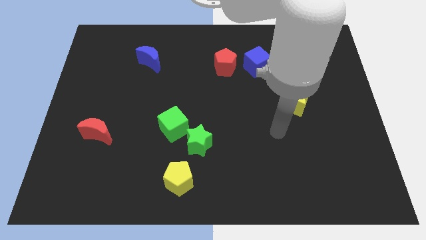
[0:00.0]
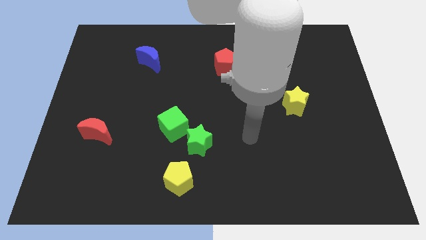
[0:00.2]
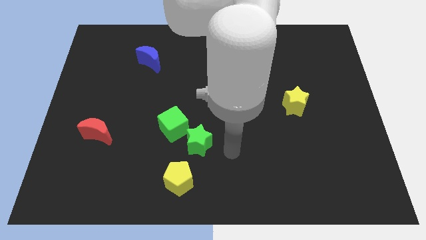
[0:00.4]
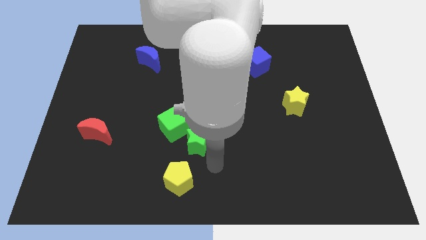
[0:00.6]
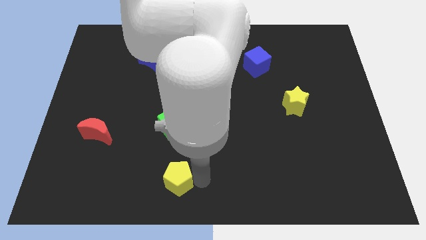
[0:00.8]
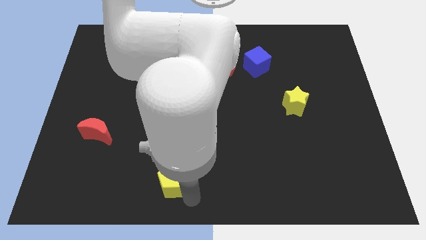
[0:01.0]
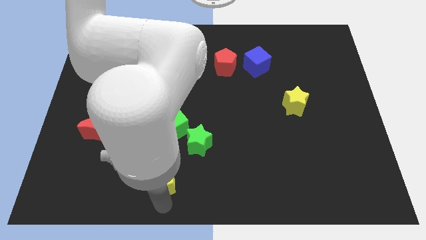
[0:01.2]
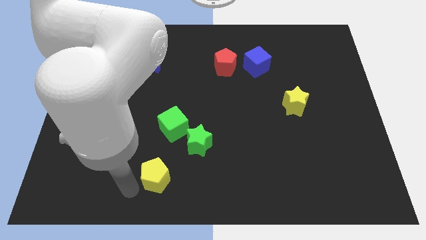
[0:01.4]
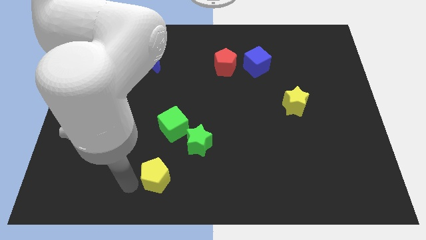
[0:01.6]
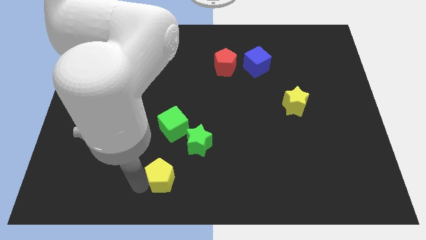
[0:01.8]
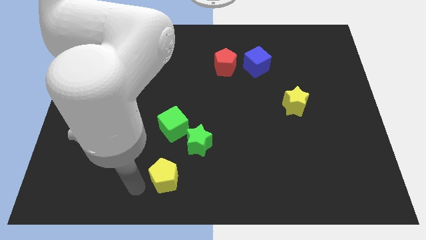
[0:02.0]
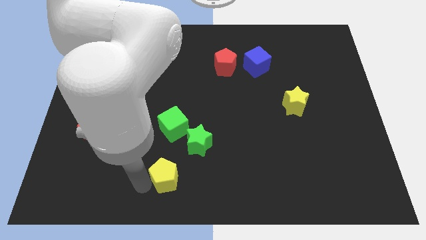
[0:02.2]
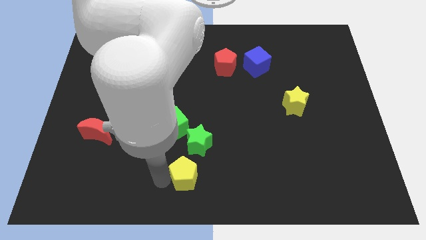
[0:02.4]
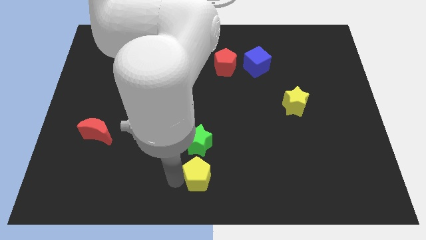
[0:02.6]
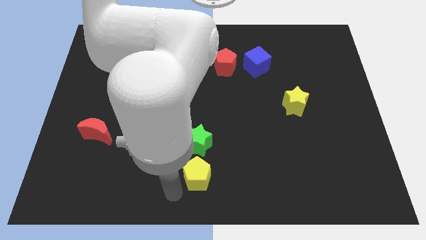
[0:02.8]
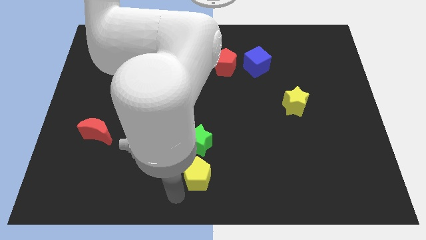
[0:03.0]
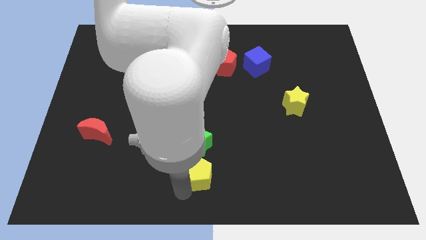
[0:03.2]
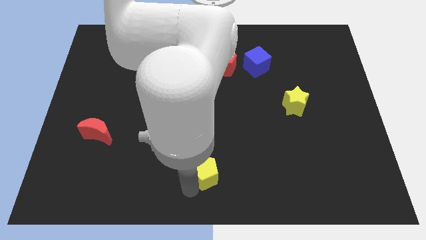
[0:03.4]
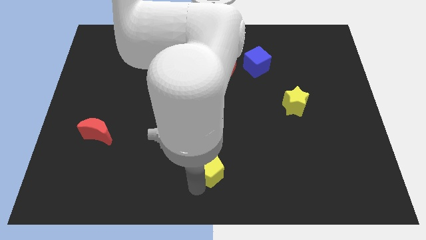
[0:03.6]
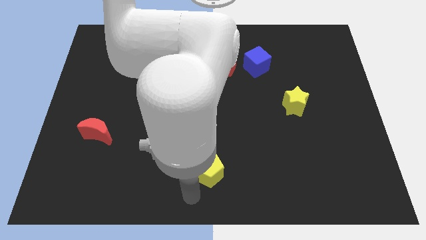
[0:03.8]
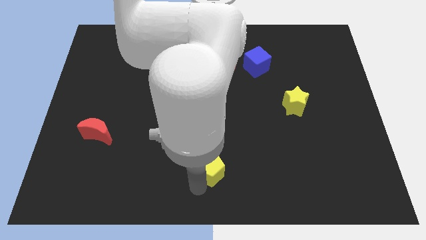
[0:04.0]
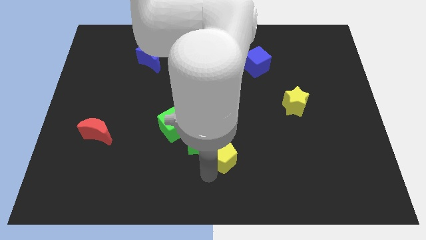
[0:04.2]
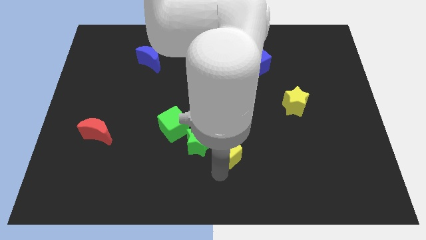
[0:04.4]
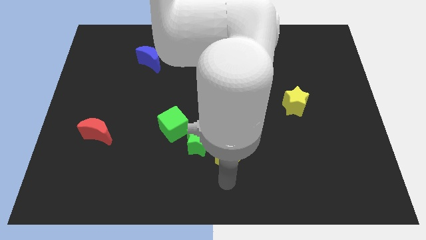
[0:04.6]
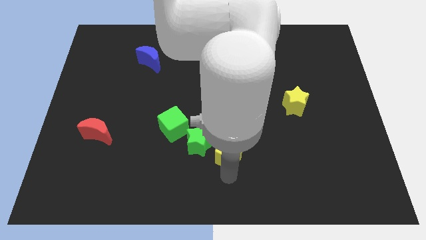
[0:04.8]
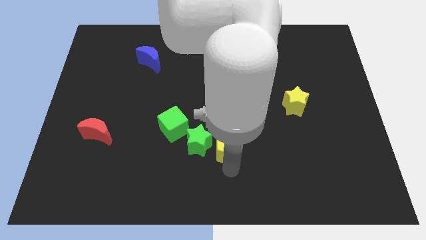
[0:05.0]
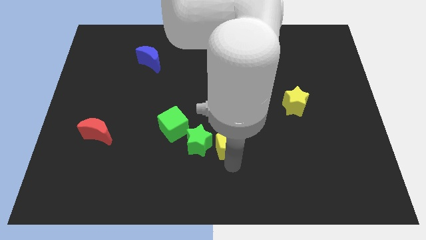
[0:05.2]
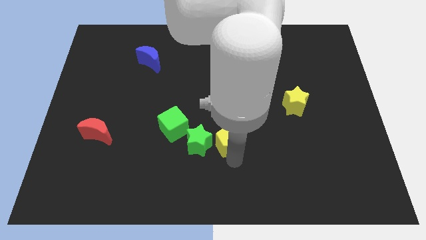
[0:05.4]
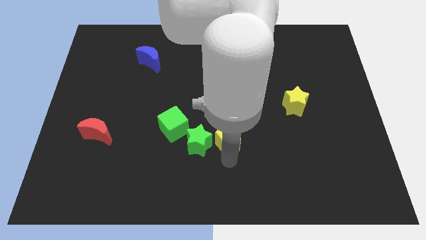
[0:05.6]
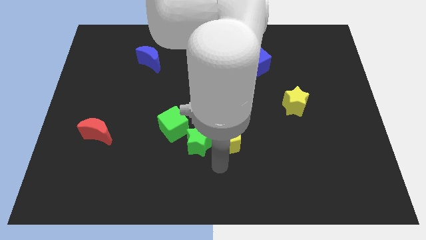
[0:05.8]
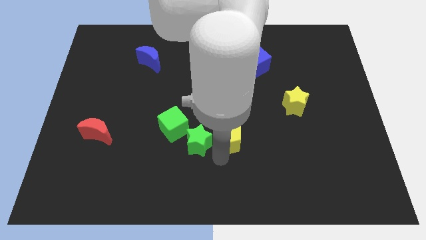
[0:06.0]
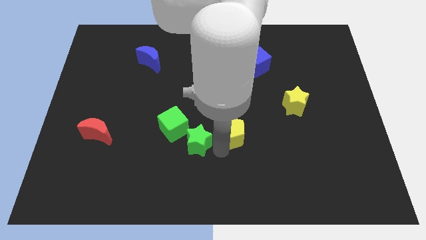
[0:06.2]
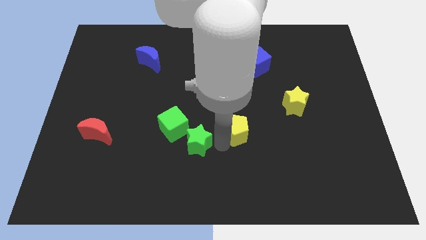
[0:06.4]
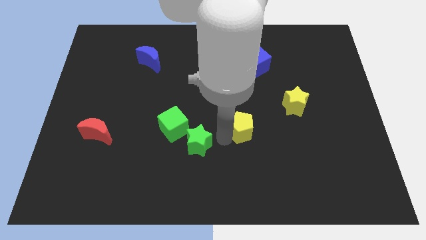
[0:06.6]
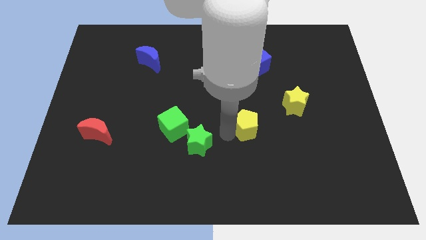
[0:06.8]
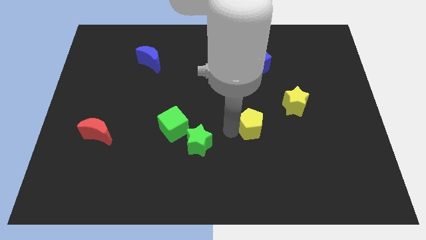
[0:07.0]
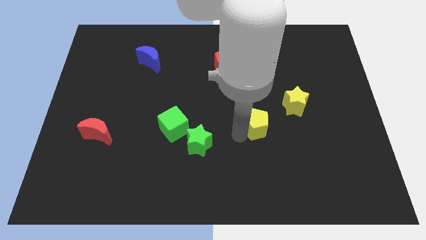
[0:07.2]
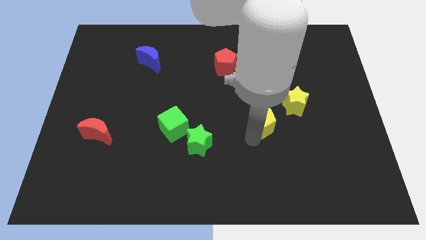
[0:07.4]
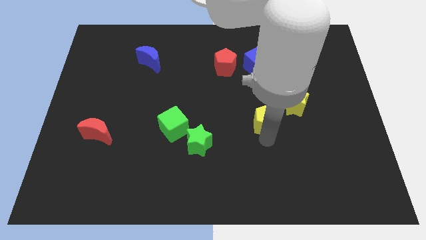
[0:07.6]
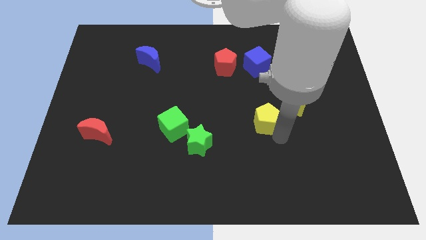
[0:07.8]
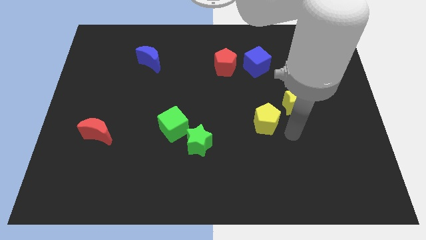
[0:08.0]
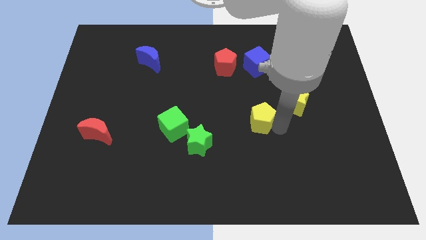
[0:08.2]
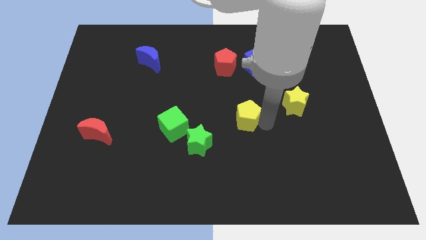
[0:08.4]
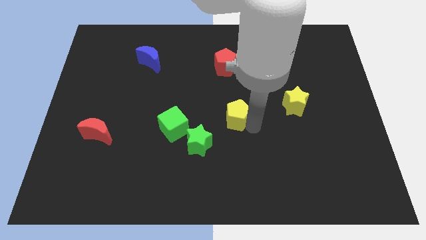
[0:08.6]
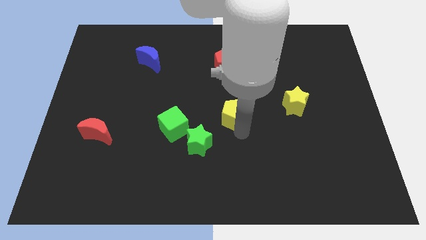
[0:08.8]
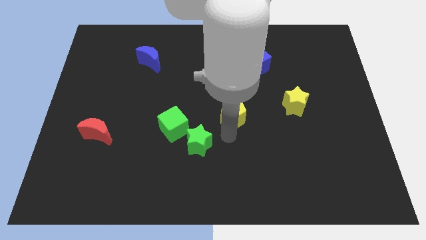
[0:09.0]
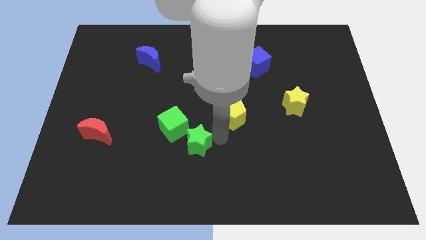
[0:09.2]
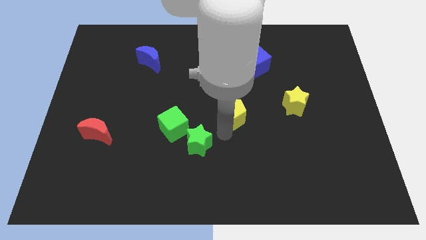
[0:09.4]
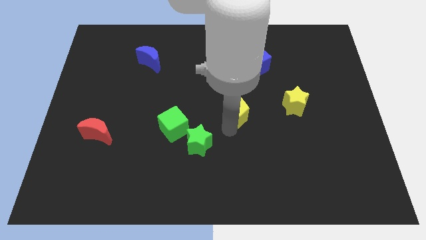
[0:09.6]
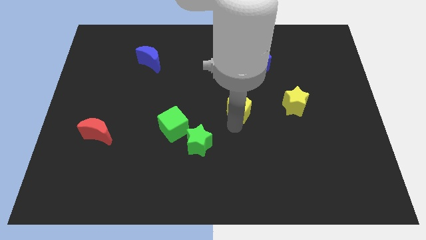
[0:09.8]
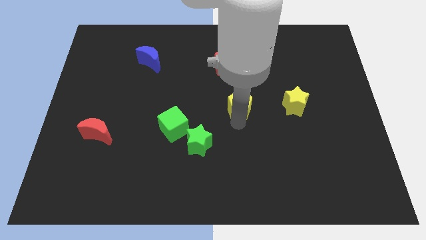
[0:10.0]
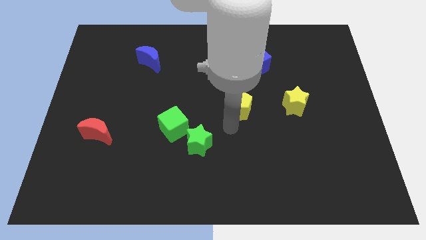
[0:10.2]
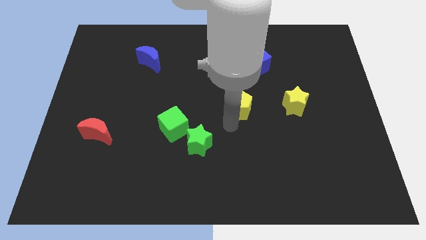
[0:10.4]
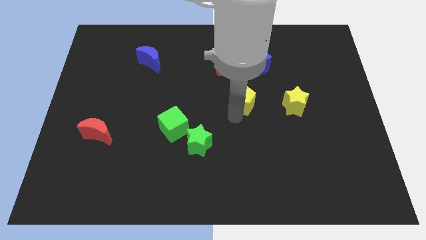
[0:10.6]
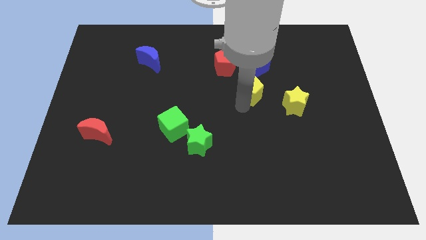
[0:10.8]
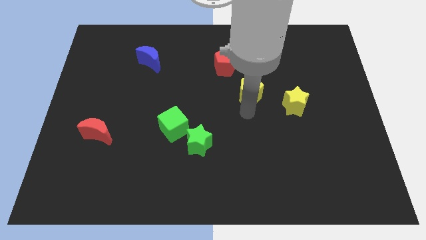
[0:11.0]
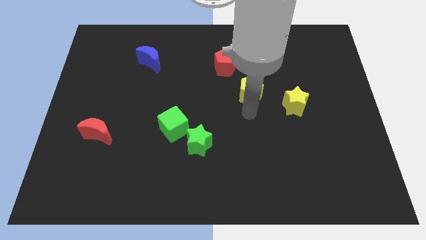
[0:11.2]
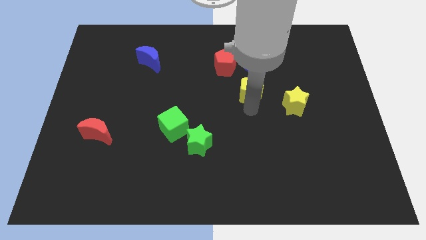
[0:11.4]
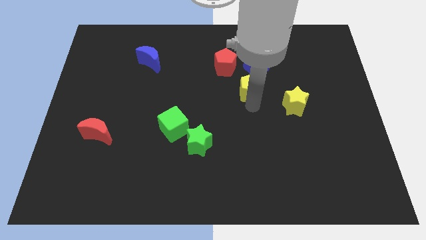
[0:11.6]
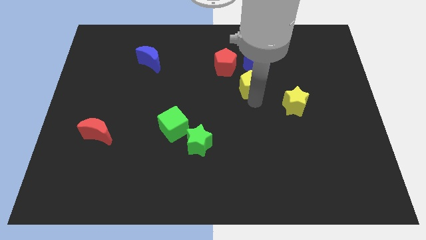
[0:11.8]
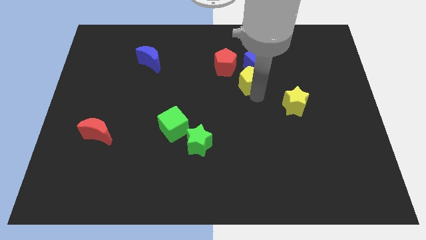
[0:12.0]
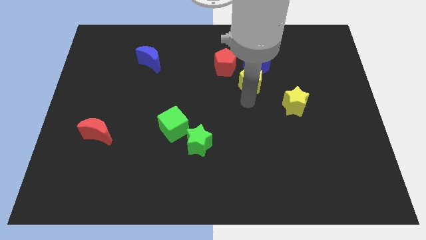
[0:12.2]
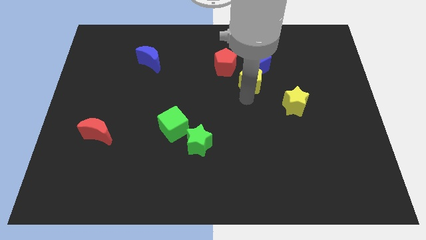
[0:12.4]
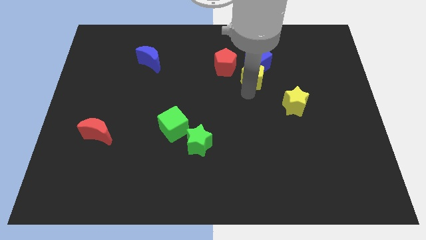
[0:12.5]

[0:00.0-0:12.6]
put the yellow pentagon to the blue cube

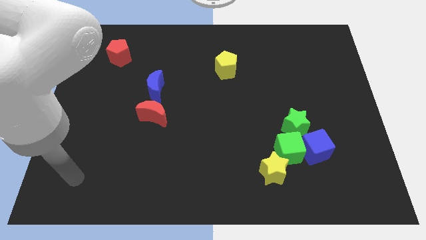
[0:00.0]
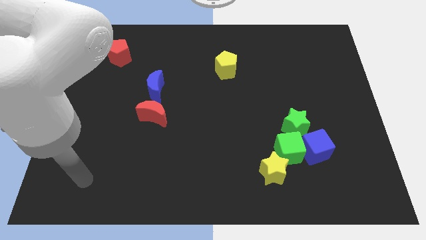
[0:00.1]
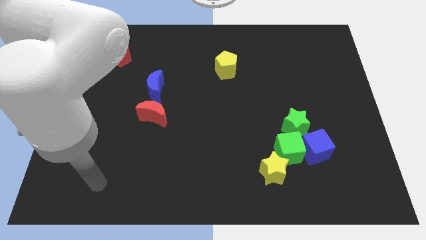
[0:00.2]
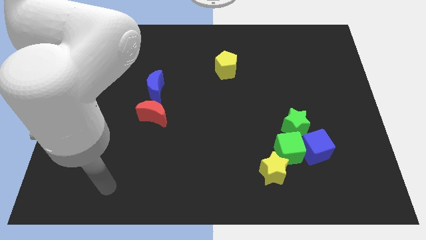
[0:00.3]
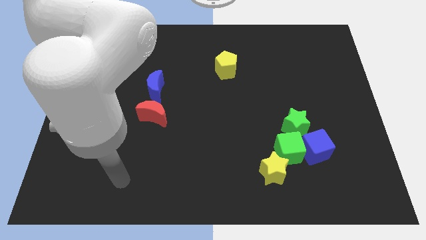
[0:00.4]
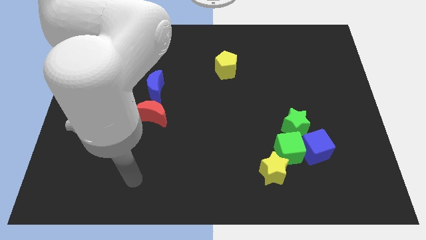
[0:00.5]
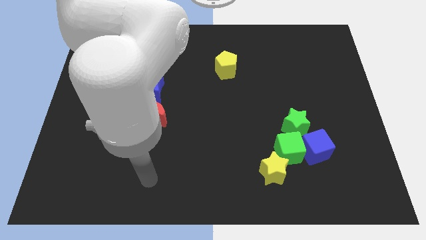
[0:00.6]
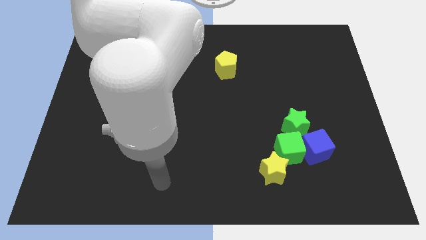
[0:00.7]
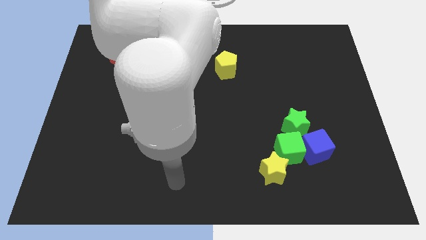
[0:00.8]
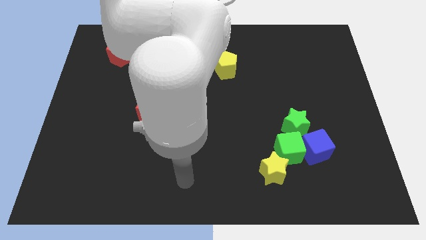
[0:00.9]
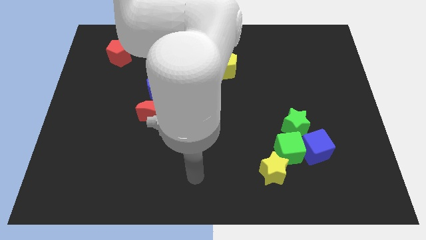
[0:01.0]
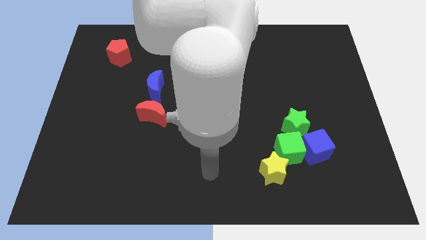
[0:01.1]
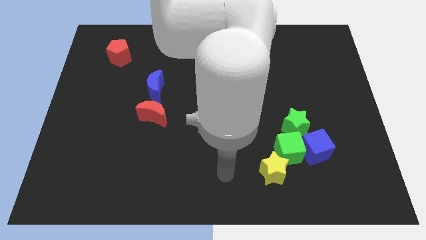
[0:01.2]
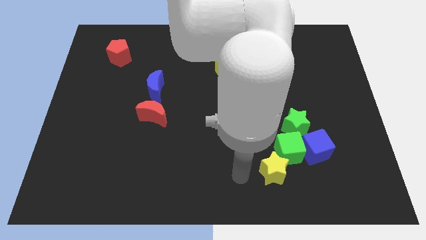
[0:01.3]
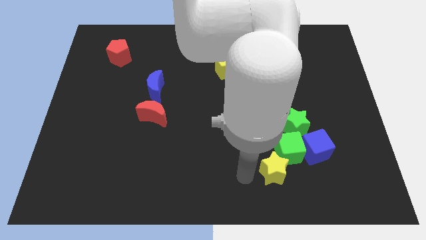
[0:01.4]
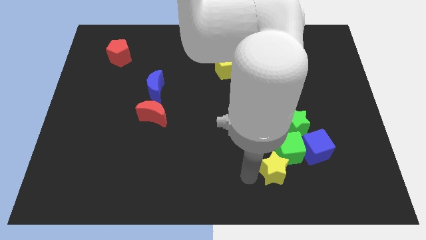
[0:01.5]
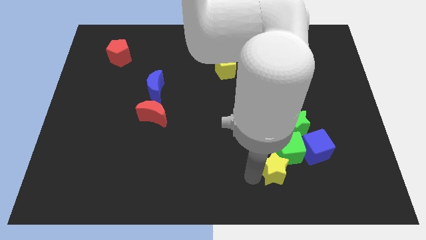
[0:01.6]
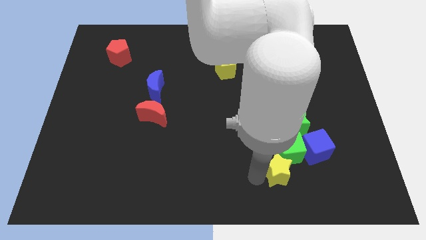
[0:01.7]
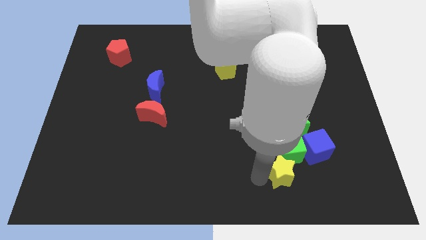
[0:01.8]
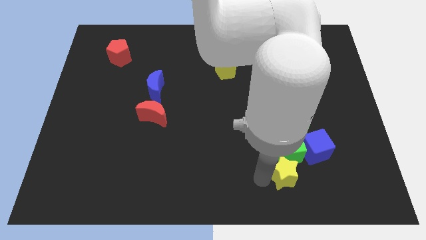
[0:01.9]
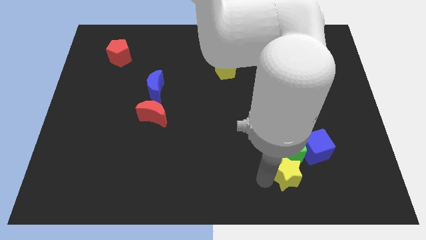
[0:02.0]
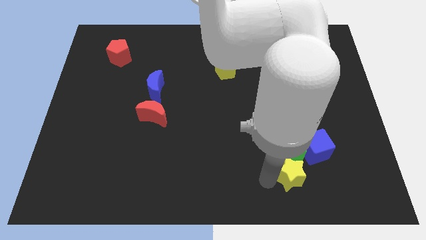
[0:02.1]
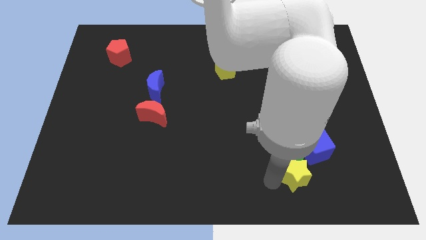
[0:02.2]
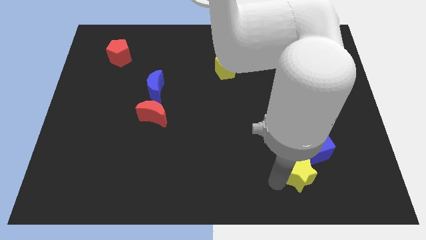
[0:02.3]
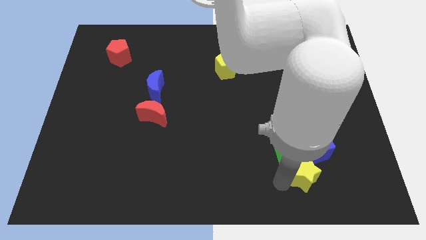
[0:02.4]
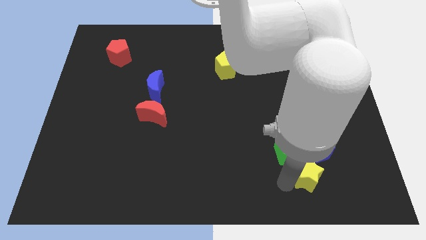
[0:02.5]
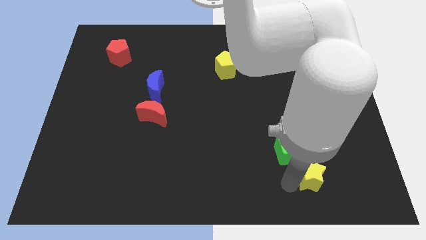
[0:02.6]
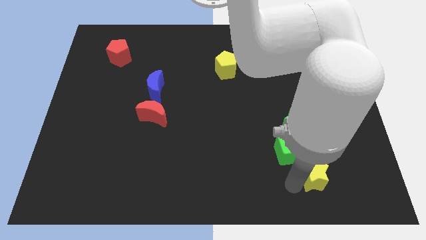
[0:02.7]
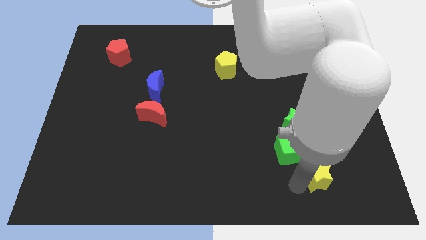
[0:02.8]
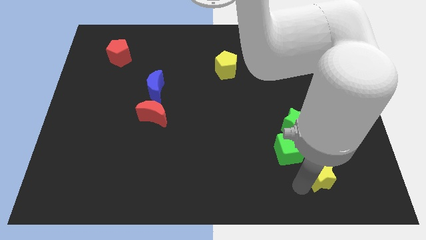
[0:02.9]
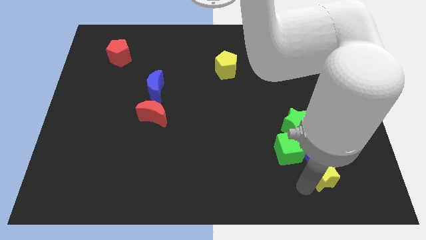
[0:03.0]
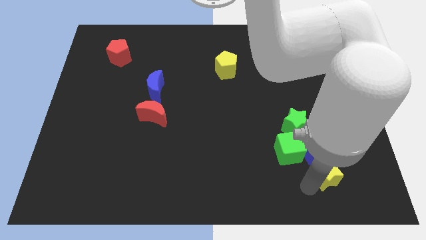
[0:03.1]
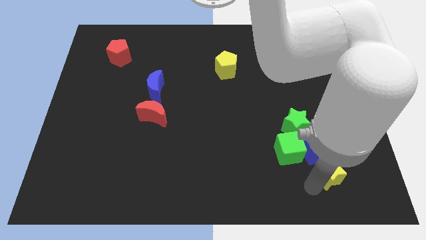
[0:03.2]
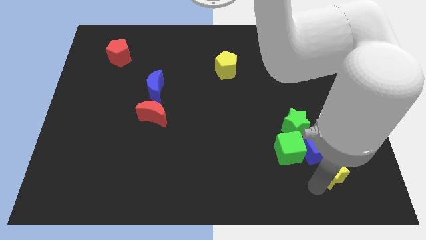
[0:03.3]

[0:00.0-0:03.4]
push the yellow star close to the blue cube
